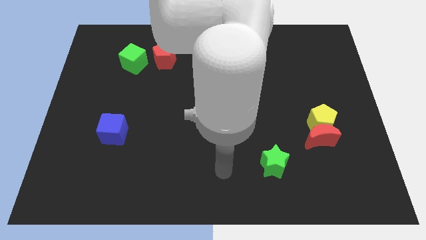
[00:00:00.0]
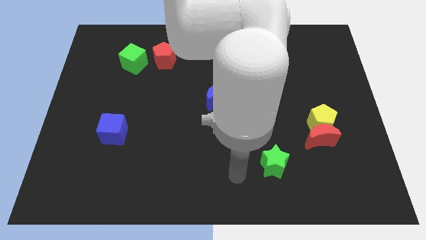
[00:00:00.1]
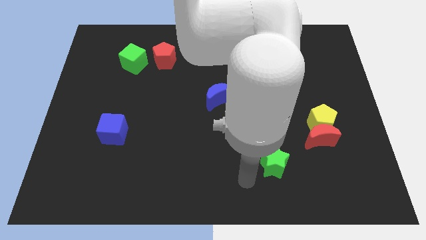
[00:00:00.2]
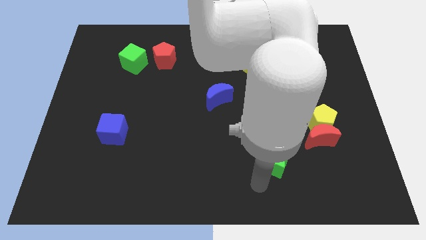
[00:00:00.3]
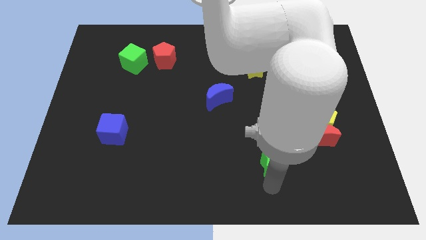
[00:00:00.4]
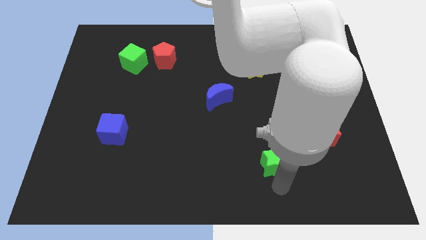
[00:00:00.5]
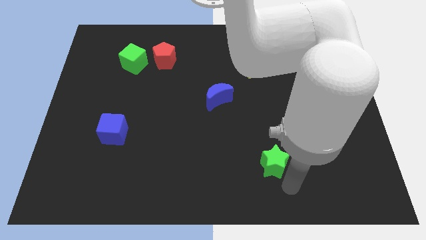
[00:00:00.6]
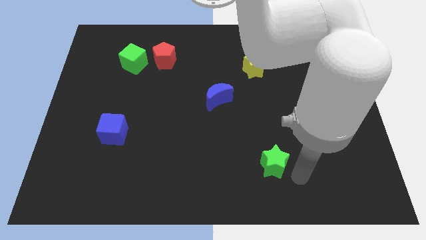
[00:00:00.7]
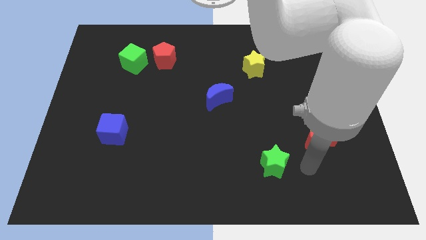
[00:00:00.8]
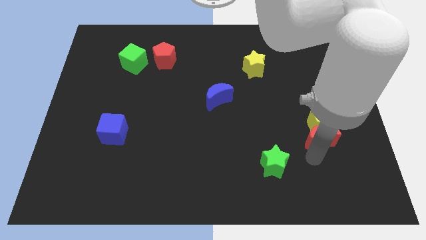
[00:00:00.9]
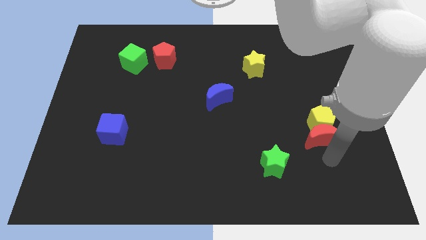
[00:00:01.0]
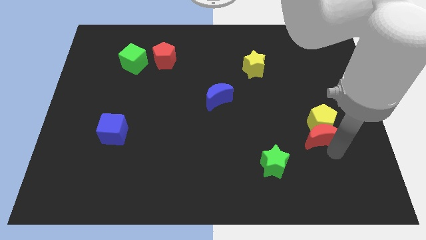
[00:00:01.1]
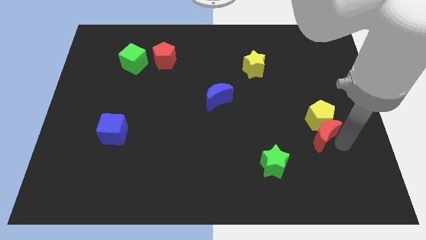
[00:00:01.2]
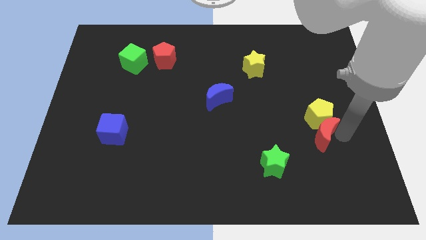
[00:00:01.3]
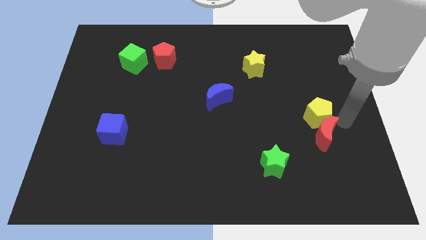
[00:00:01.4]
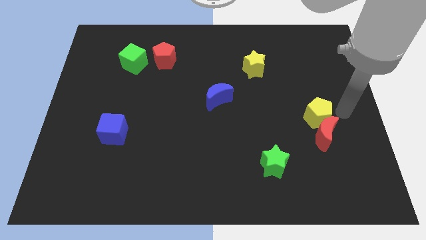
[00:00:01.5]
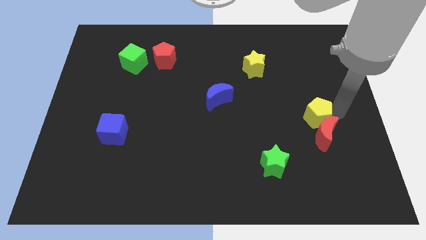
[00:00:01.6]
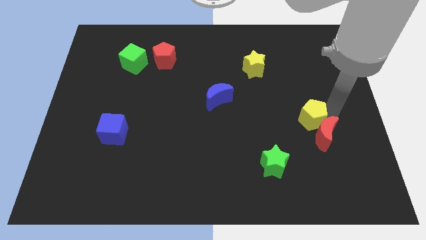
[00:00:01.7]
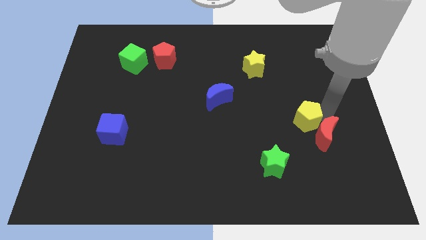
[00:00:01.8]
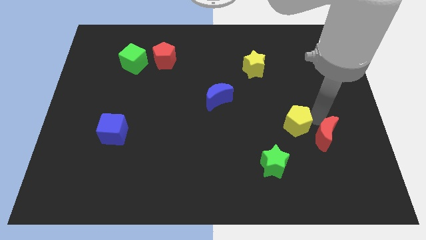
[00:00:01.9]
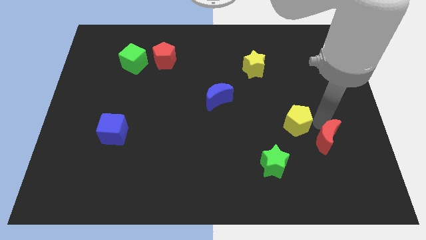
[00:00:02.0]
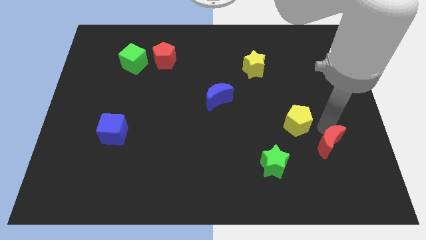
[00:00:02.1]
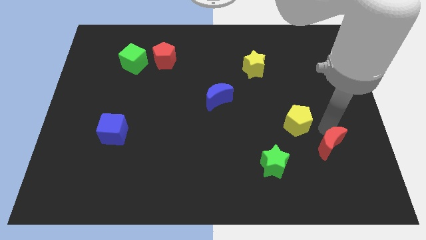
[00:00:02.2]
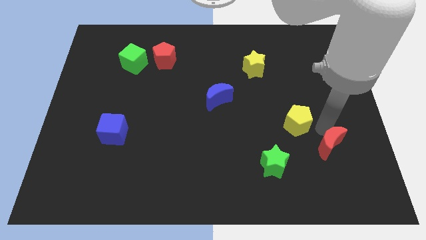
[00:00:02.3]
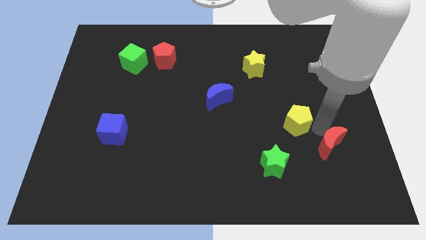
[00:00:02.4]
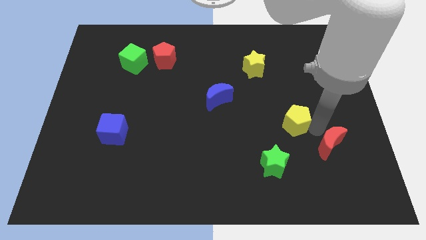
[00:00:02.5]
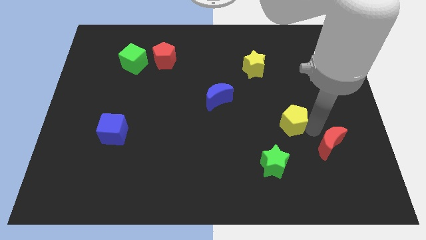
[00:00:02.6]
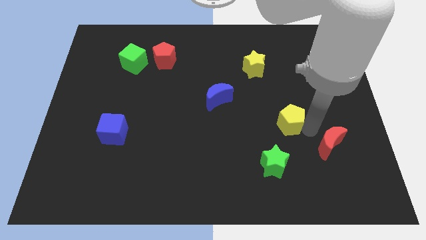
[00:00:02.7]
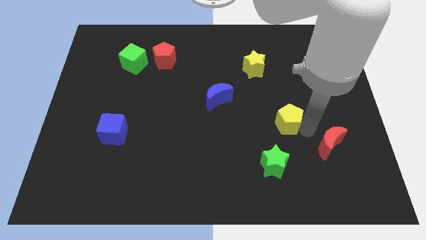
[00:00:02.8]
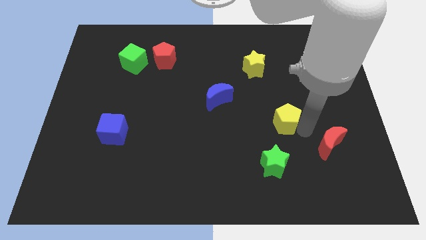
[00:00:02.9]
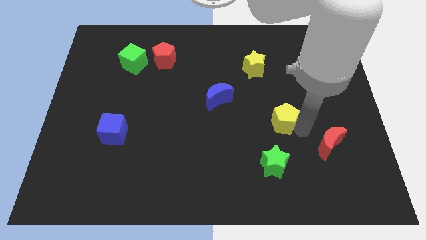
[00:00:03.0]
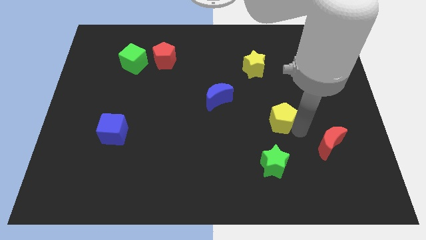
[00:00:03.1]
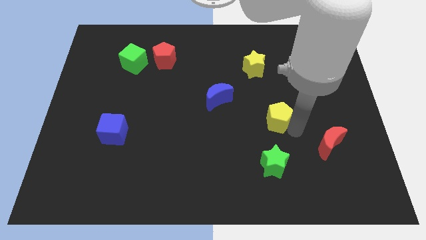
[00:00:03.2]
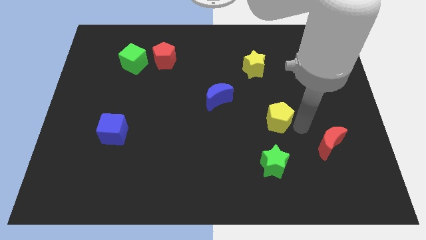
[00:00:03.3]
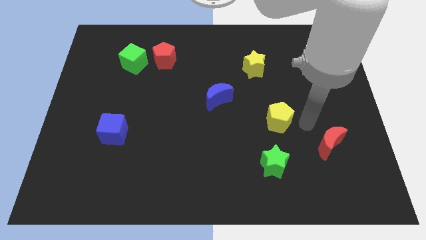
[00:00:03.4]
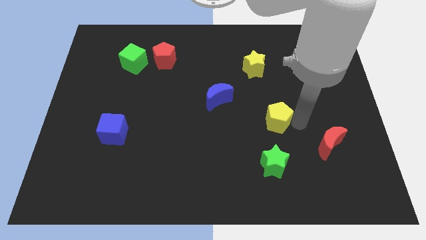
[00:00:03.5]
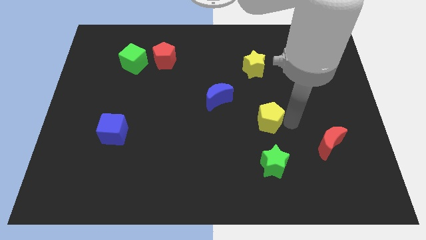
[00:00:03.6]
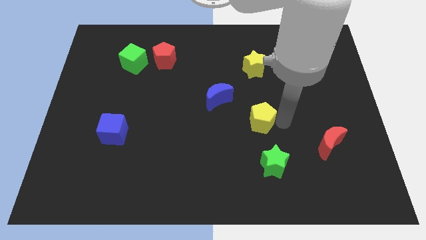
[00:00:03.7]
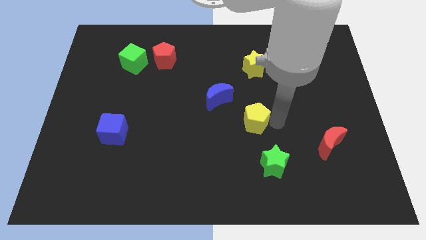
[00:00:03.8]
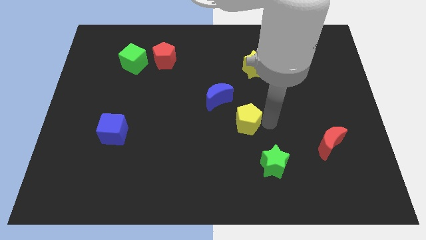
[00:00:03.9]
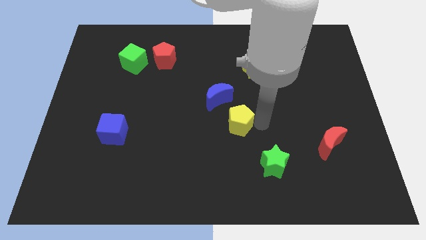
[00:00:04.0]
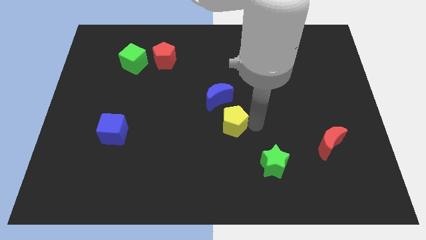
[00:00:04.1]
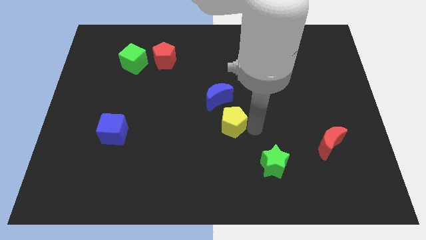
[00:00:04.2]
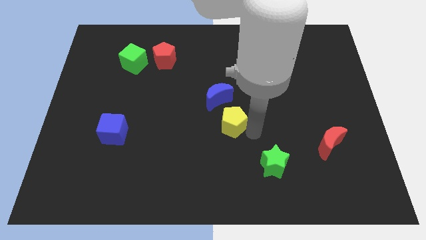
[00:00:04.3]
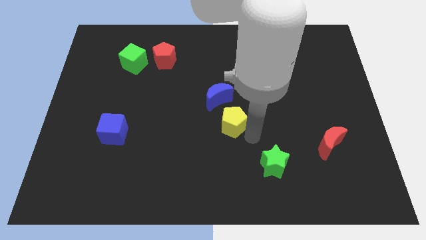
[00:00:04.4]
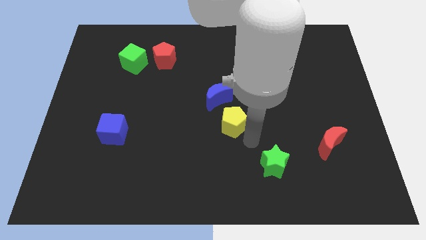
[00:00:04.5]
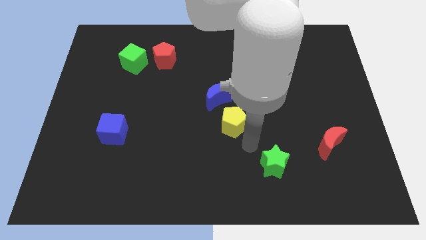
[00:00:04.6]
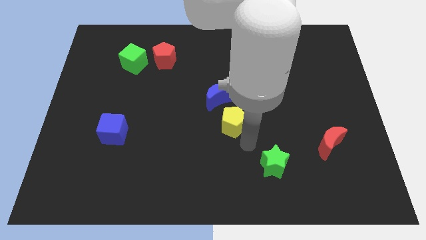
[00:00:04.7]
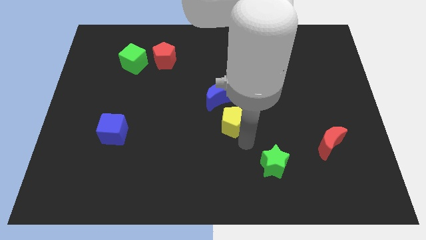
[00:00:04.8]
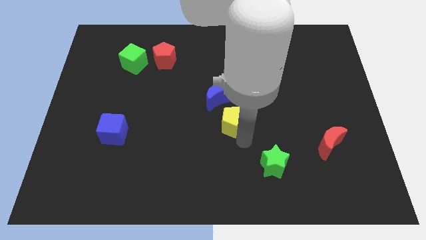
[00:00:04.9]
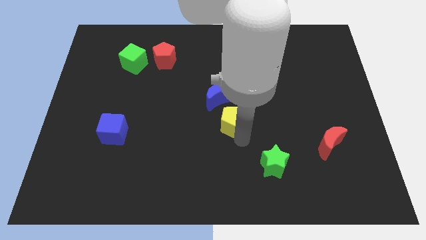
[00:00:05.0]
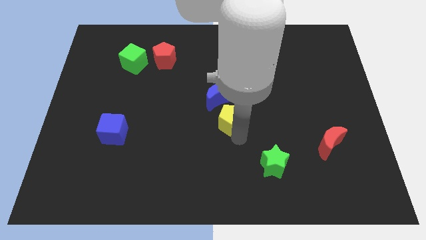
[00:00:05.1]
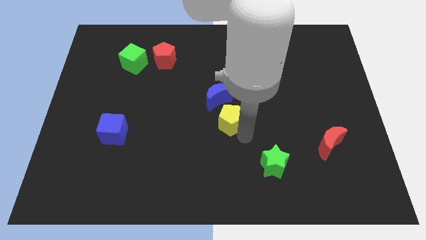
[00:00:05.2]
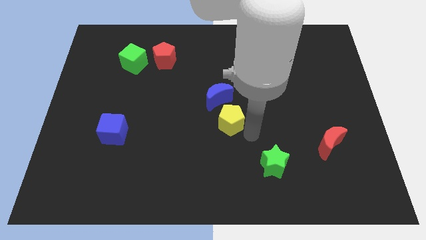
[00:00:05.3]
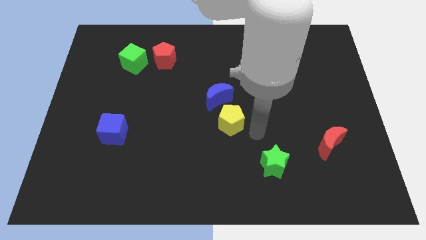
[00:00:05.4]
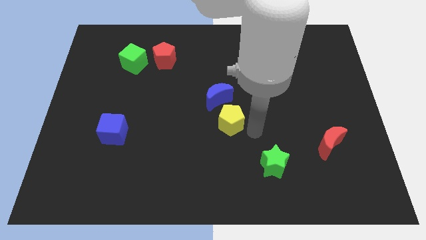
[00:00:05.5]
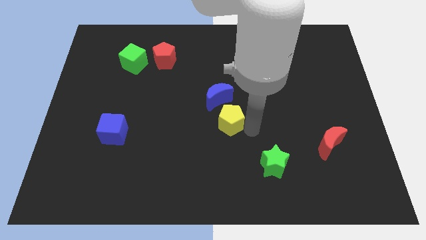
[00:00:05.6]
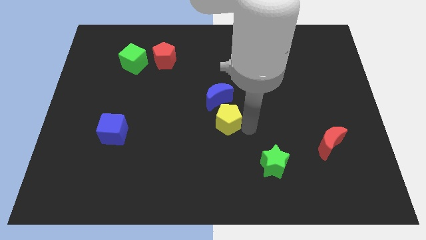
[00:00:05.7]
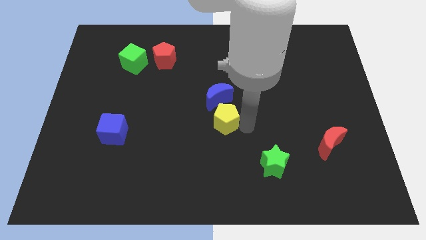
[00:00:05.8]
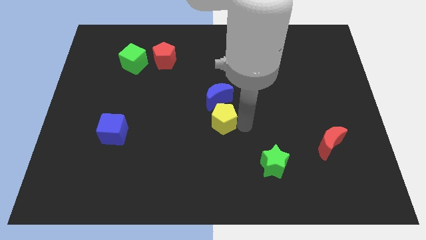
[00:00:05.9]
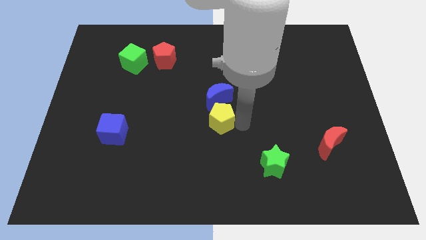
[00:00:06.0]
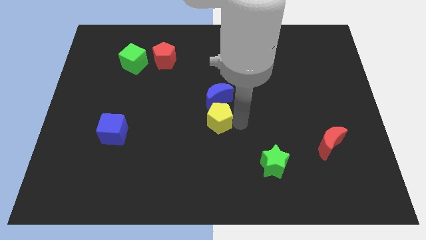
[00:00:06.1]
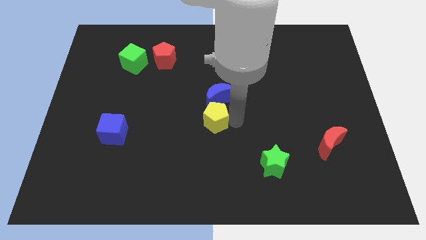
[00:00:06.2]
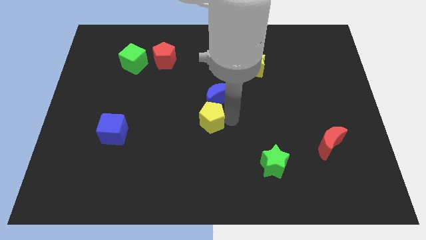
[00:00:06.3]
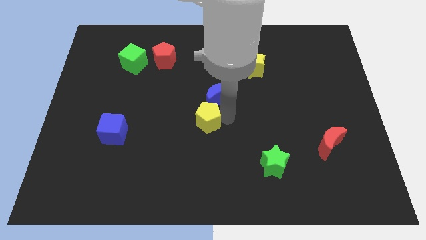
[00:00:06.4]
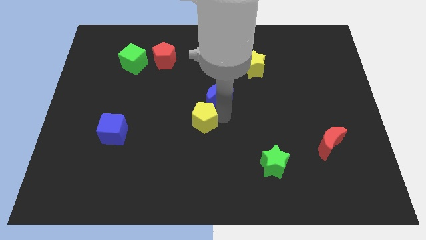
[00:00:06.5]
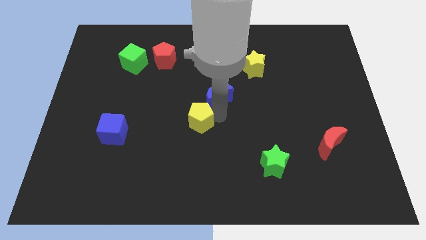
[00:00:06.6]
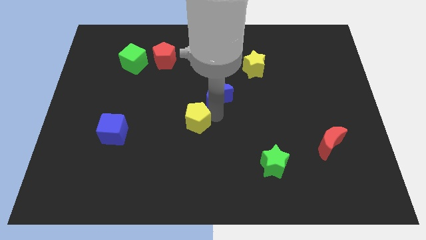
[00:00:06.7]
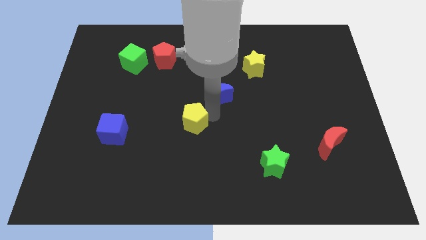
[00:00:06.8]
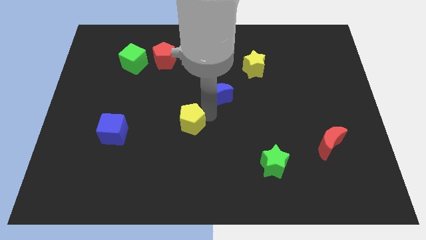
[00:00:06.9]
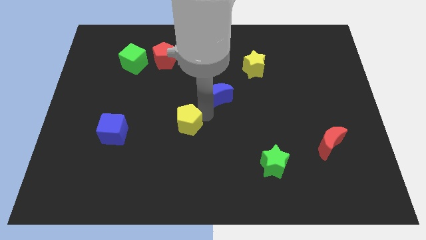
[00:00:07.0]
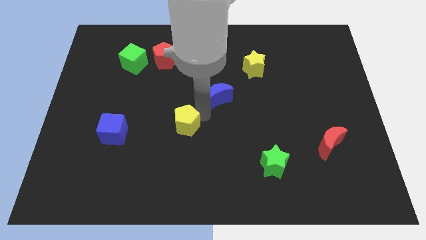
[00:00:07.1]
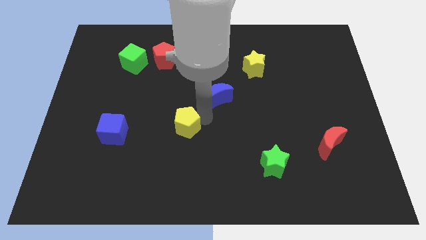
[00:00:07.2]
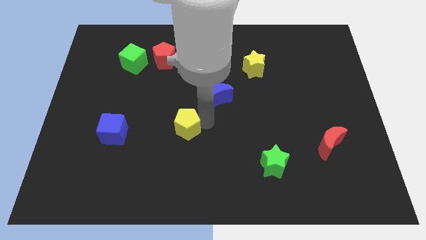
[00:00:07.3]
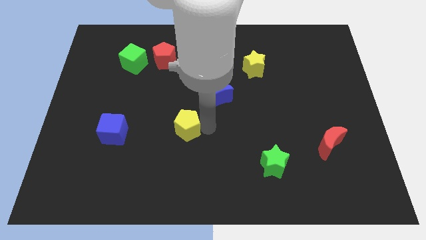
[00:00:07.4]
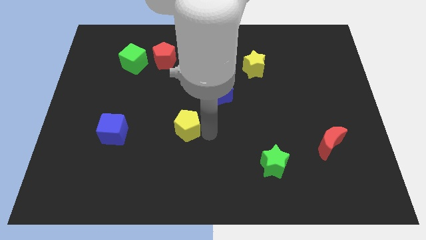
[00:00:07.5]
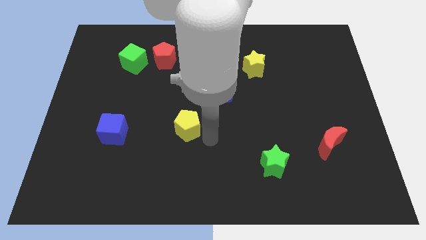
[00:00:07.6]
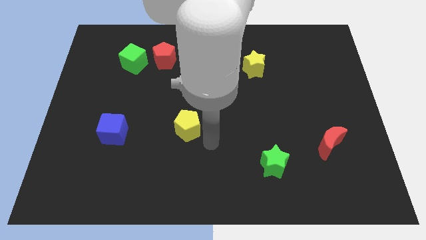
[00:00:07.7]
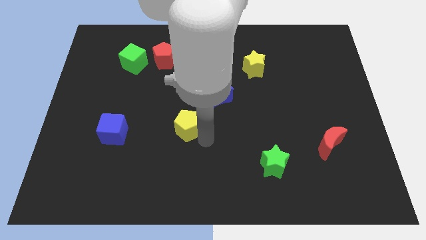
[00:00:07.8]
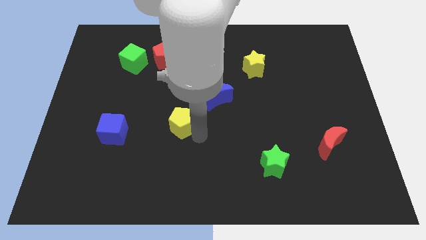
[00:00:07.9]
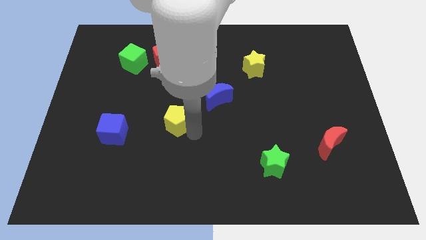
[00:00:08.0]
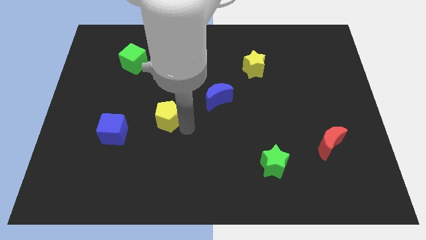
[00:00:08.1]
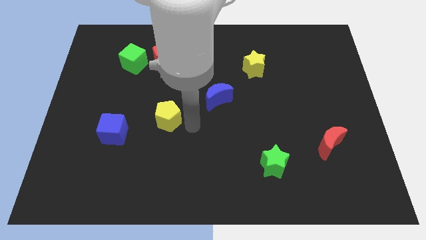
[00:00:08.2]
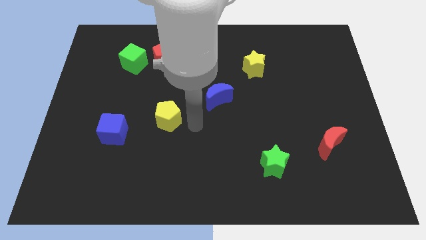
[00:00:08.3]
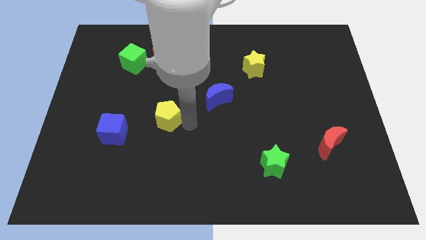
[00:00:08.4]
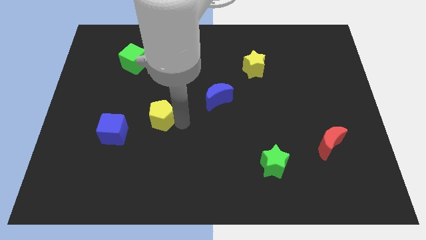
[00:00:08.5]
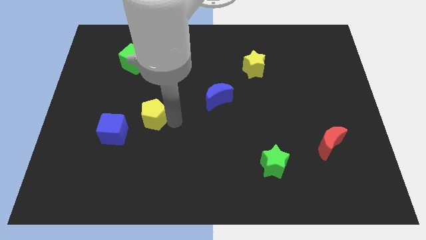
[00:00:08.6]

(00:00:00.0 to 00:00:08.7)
put the yellow pentagon to the top right side of the blue cube
